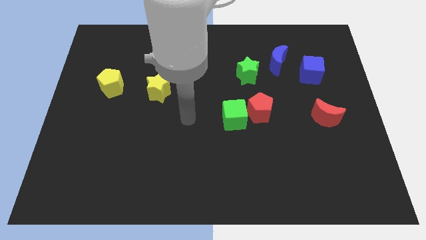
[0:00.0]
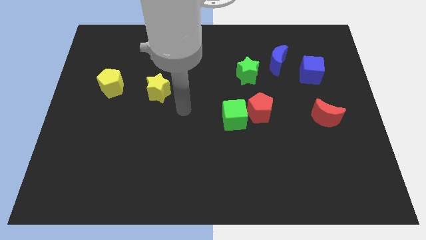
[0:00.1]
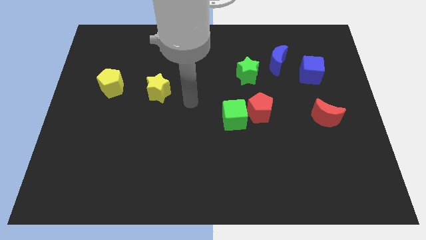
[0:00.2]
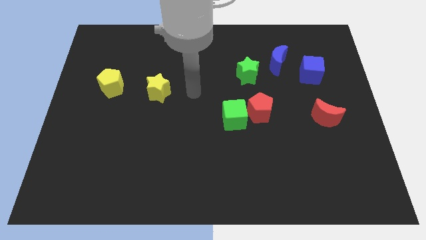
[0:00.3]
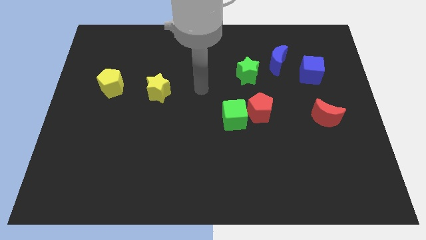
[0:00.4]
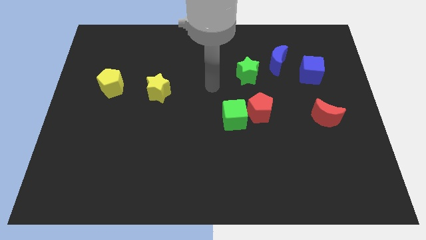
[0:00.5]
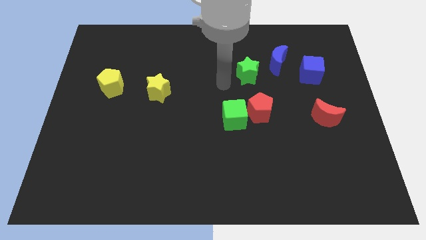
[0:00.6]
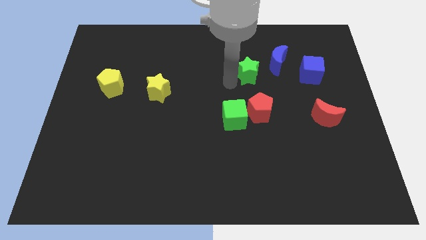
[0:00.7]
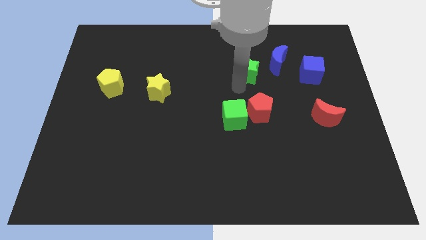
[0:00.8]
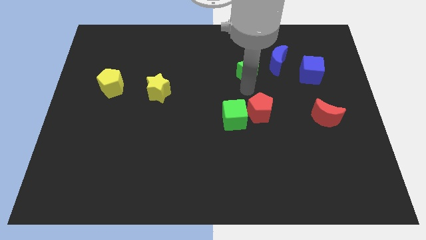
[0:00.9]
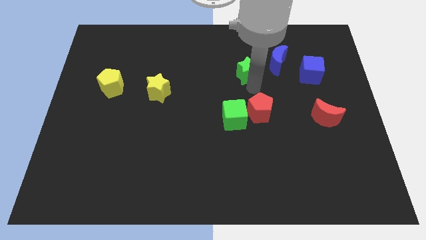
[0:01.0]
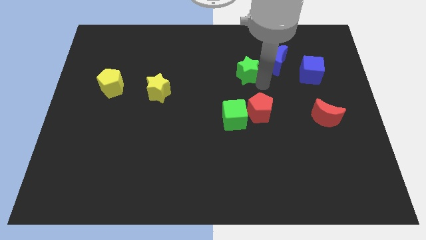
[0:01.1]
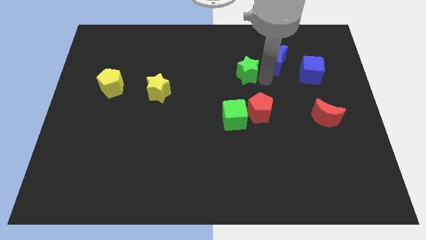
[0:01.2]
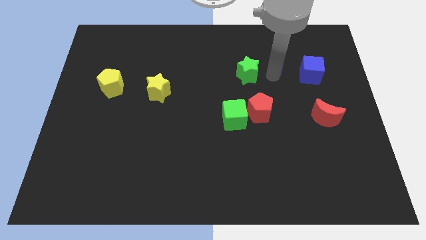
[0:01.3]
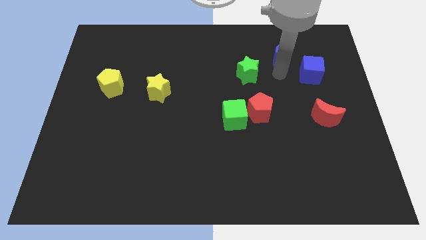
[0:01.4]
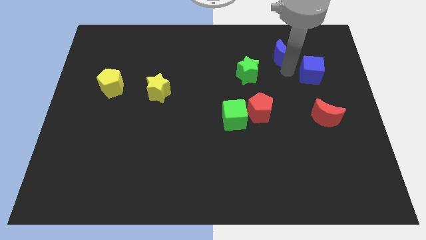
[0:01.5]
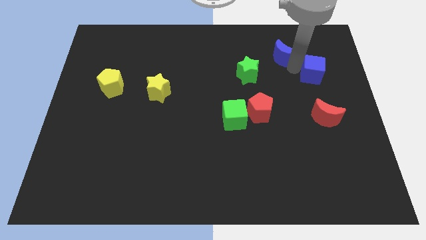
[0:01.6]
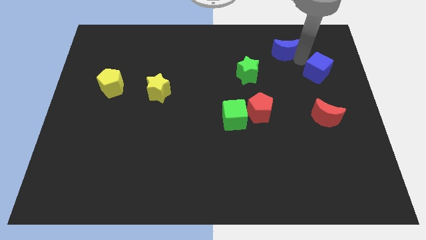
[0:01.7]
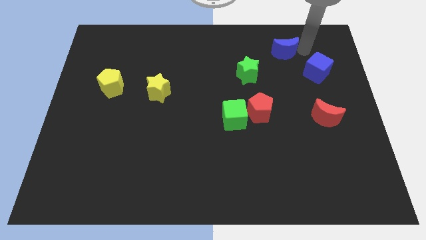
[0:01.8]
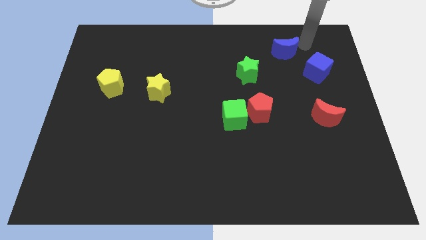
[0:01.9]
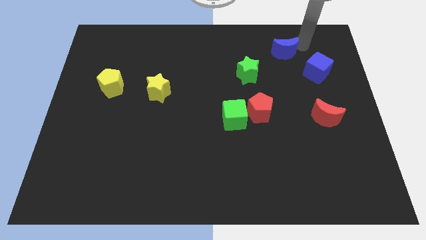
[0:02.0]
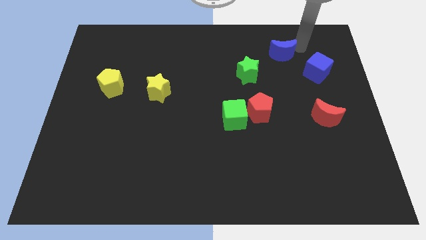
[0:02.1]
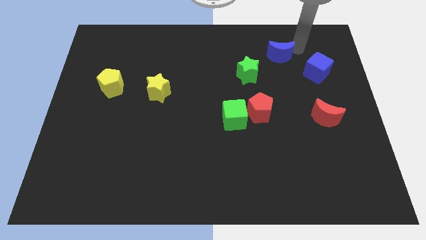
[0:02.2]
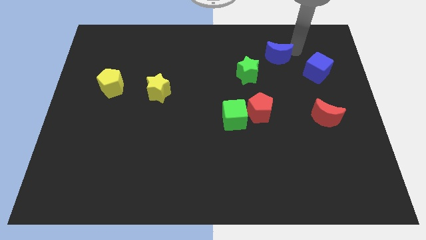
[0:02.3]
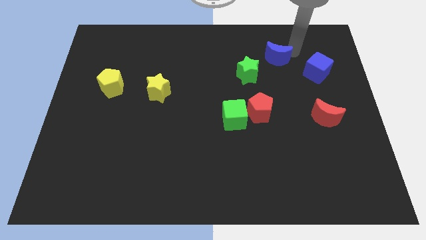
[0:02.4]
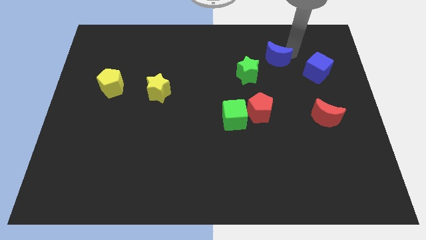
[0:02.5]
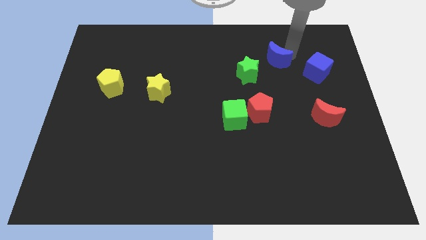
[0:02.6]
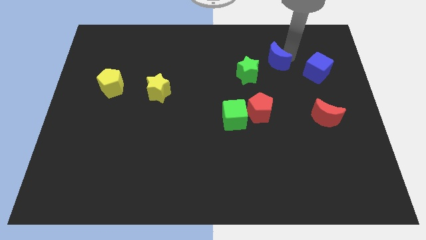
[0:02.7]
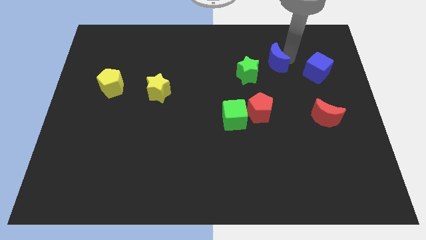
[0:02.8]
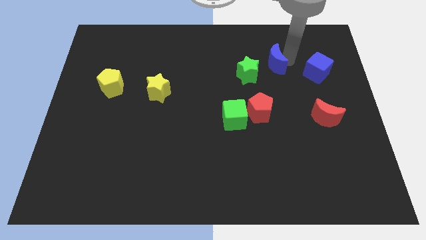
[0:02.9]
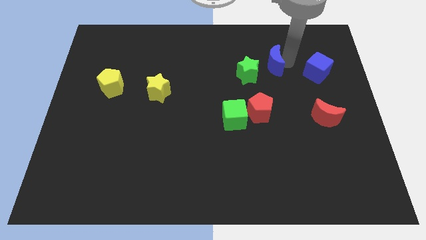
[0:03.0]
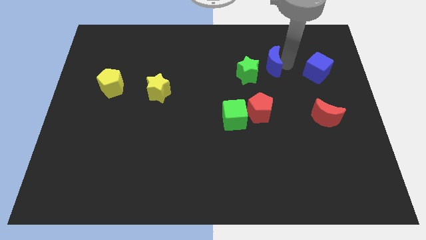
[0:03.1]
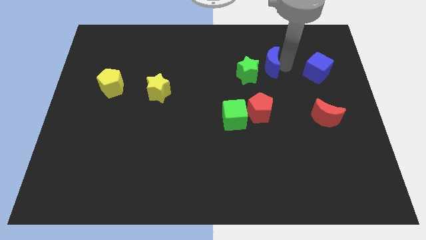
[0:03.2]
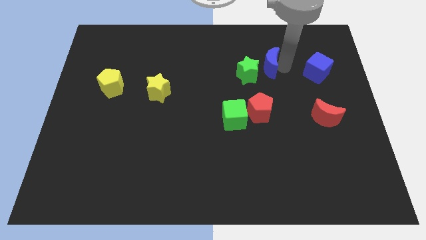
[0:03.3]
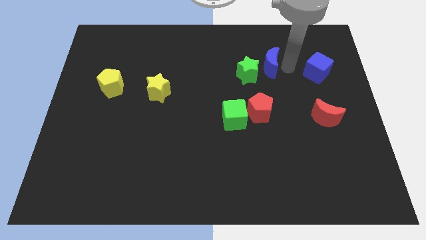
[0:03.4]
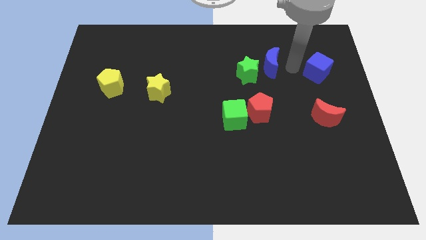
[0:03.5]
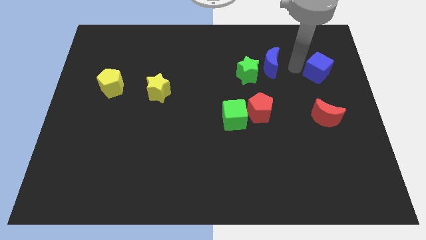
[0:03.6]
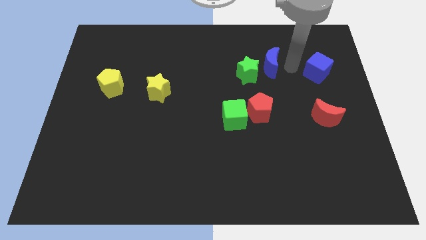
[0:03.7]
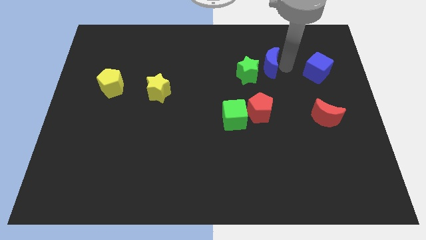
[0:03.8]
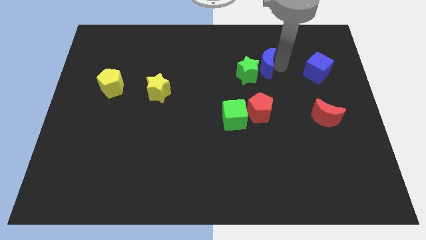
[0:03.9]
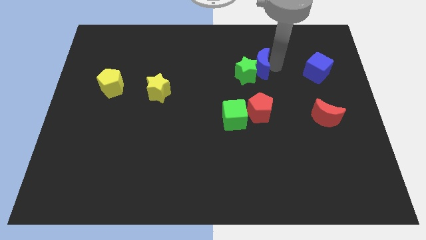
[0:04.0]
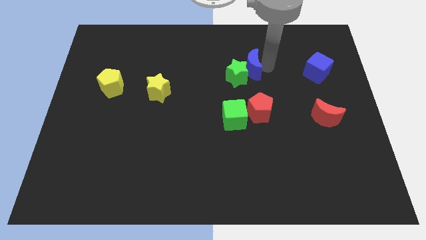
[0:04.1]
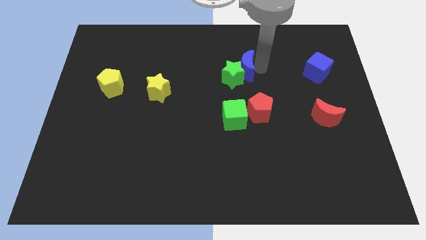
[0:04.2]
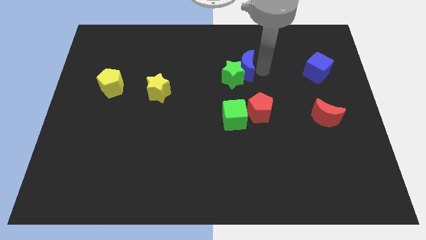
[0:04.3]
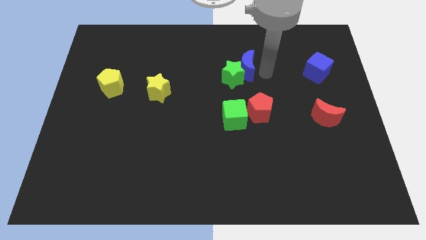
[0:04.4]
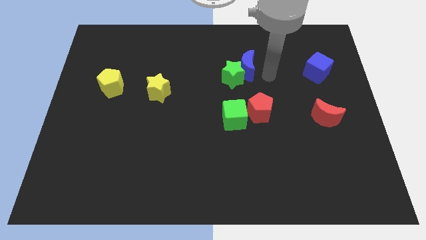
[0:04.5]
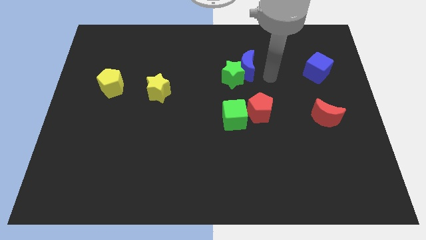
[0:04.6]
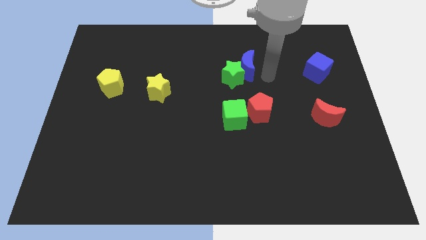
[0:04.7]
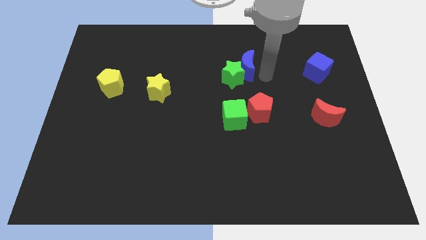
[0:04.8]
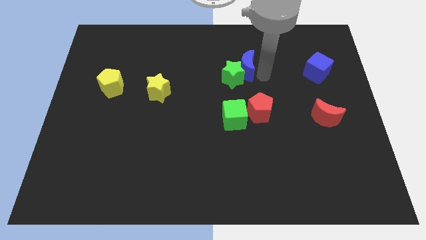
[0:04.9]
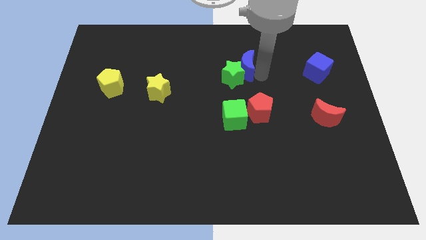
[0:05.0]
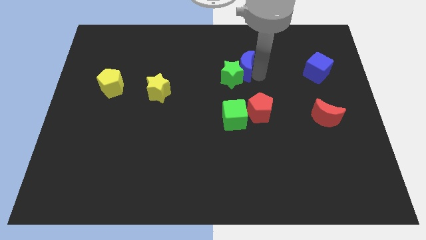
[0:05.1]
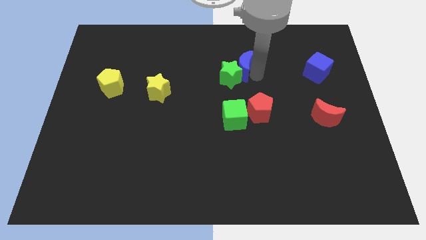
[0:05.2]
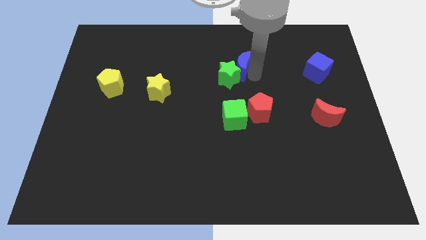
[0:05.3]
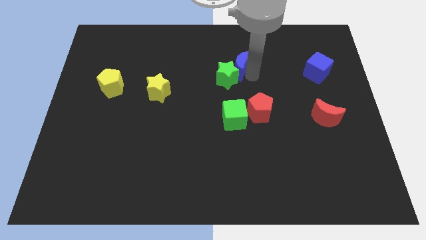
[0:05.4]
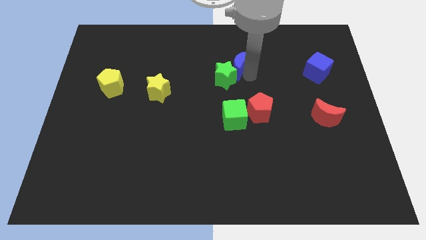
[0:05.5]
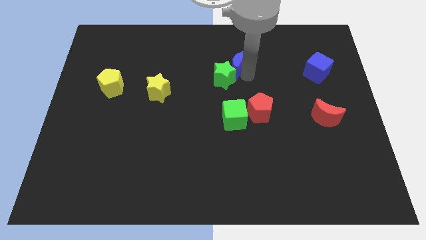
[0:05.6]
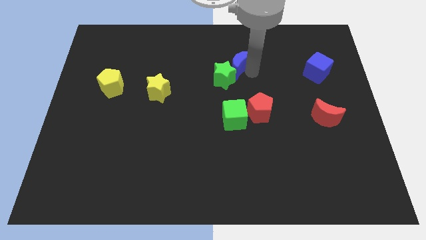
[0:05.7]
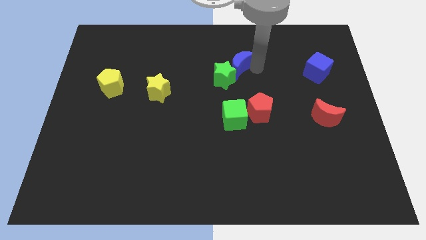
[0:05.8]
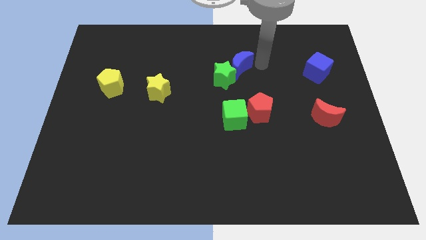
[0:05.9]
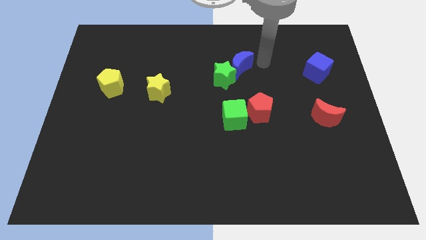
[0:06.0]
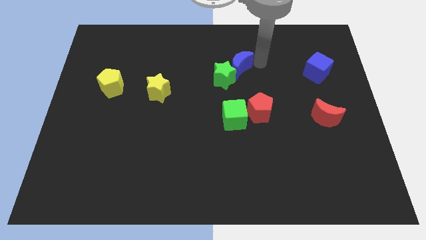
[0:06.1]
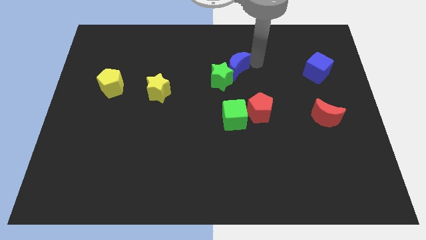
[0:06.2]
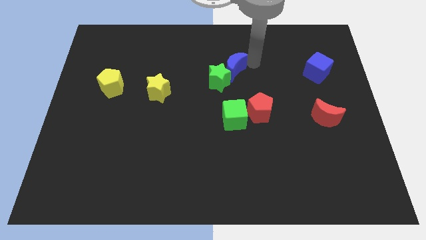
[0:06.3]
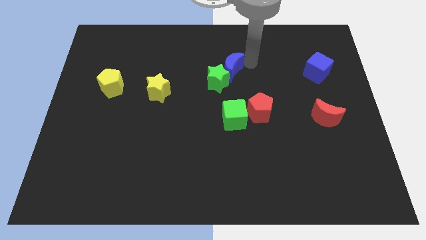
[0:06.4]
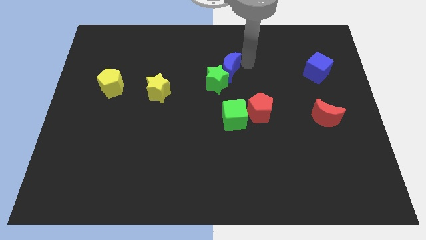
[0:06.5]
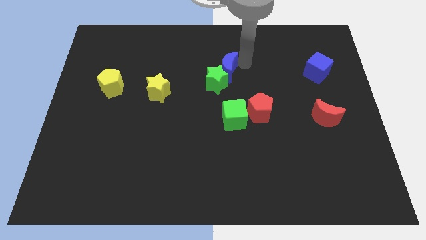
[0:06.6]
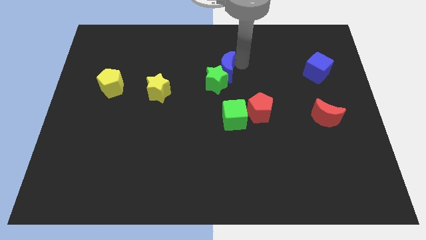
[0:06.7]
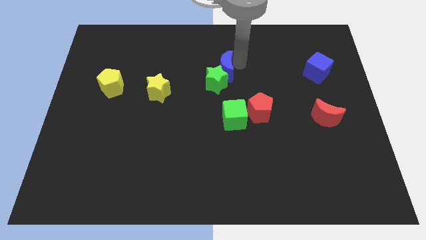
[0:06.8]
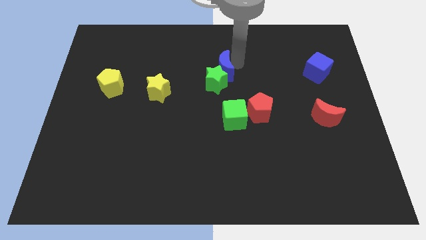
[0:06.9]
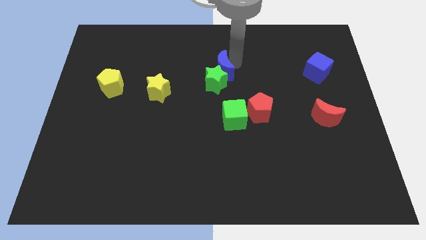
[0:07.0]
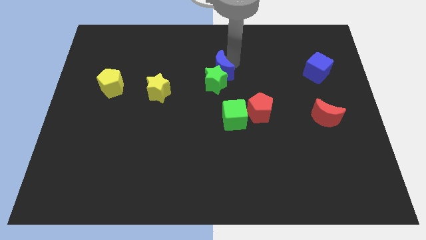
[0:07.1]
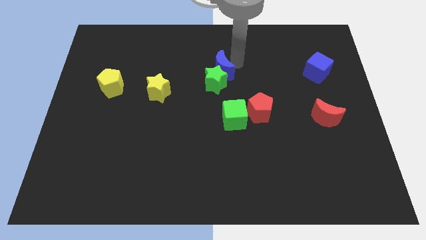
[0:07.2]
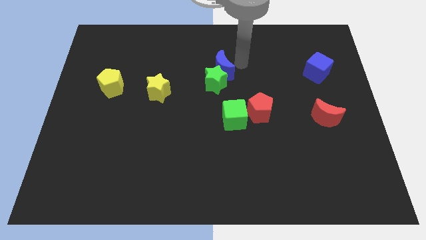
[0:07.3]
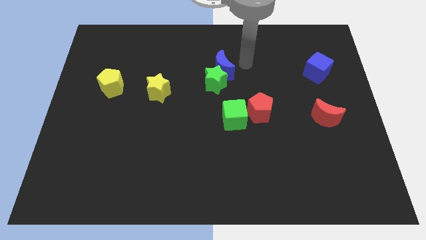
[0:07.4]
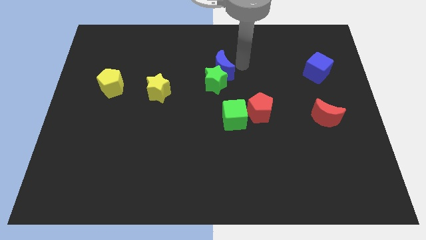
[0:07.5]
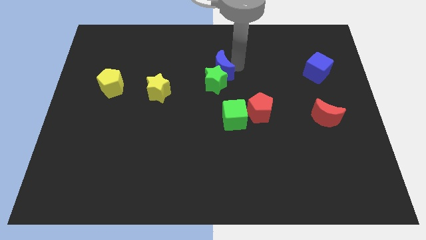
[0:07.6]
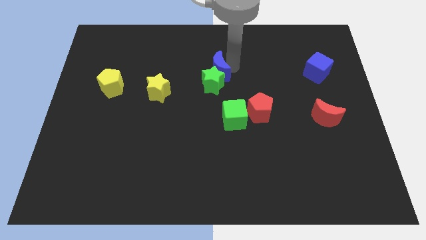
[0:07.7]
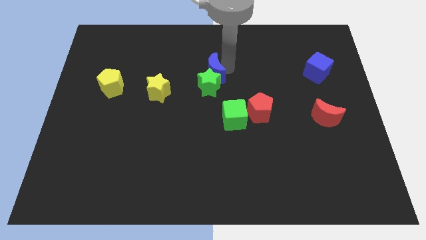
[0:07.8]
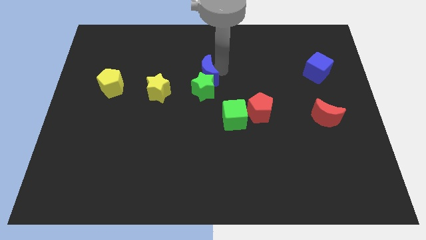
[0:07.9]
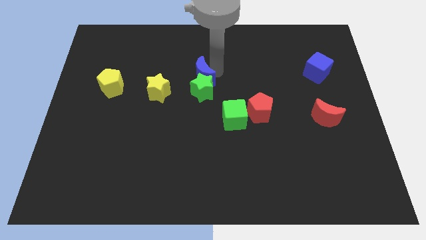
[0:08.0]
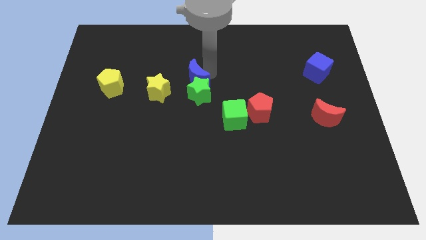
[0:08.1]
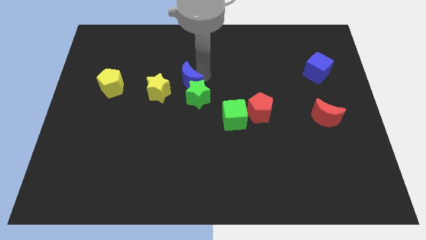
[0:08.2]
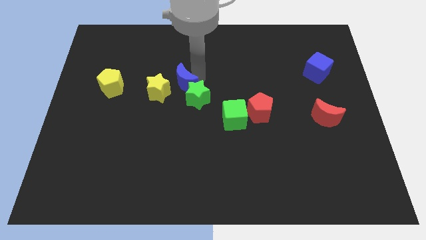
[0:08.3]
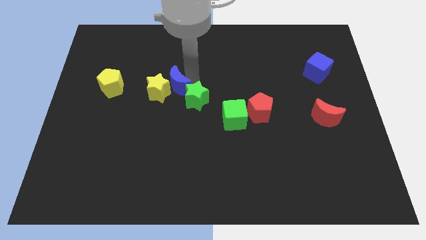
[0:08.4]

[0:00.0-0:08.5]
move the blue moon next to the yellow star
